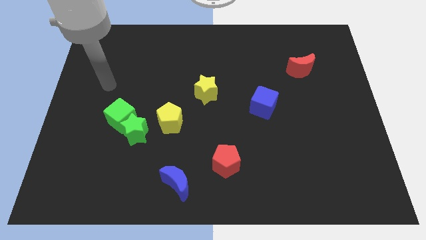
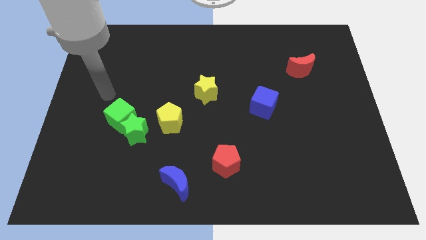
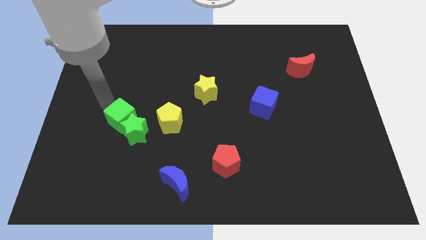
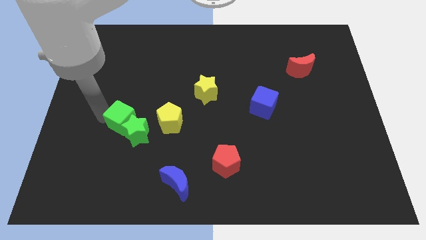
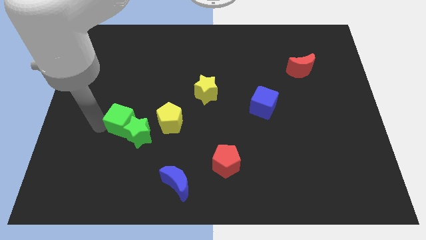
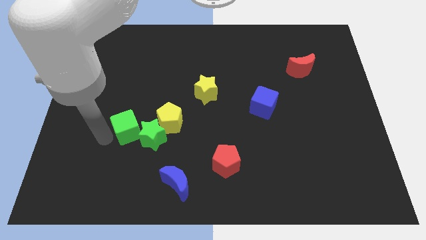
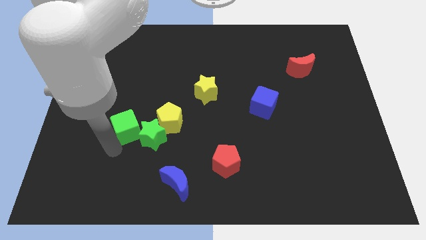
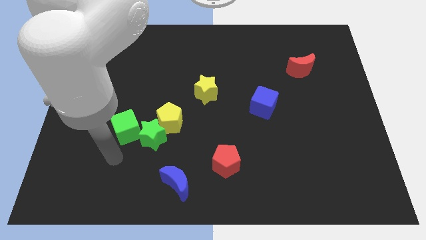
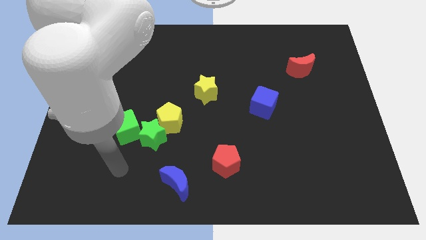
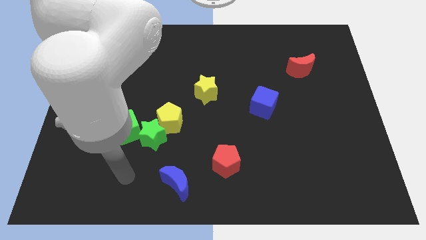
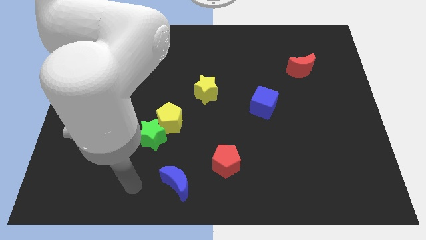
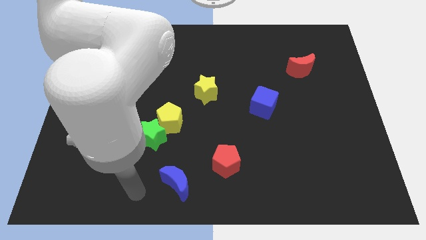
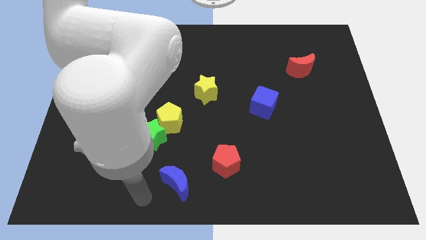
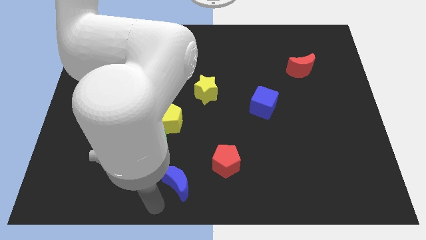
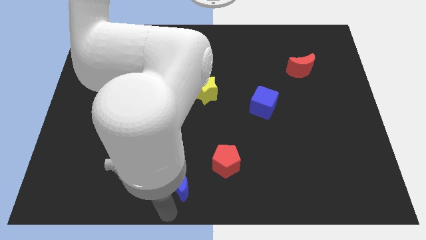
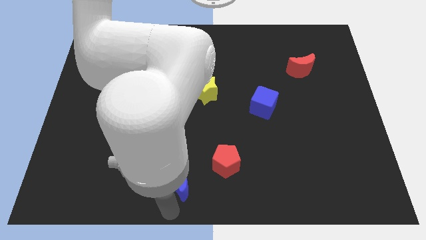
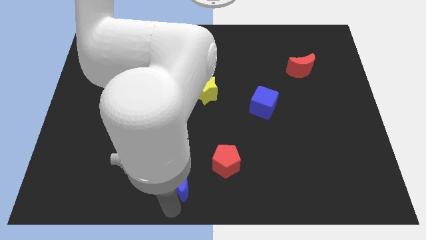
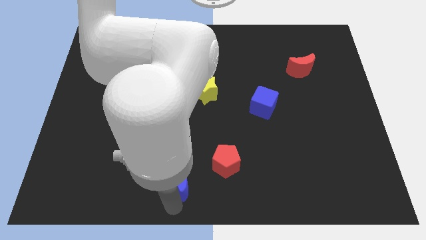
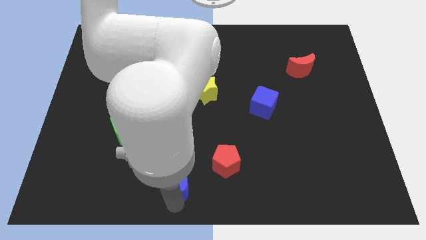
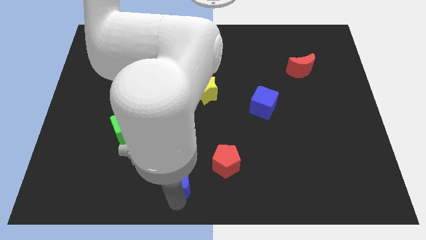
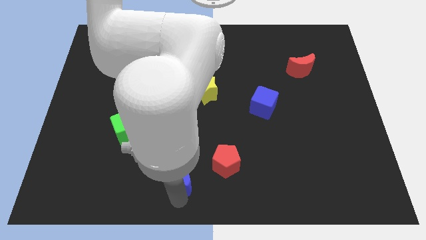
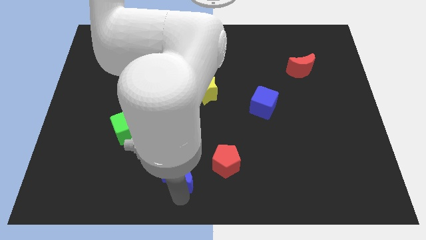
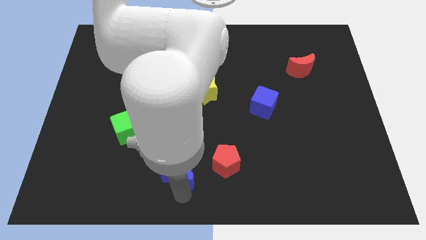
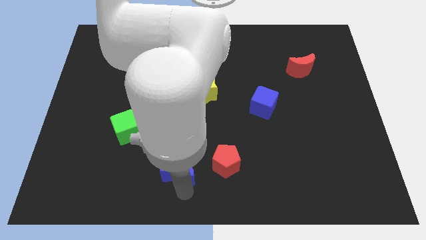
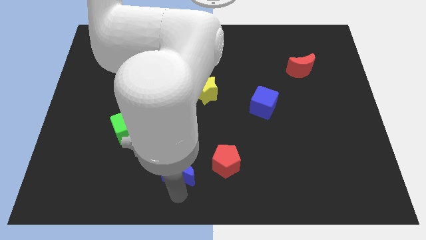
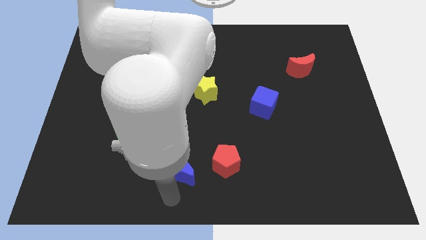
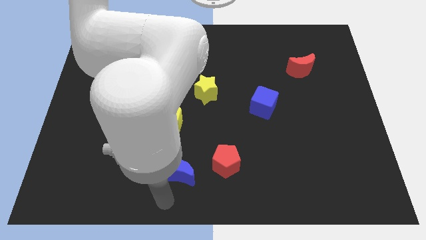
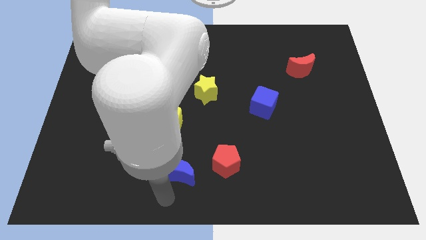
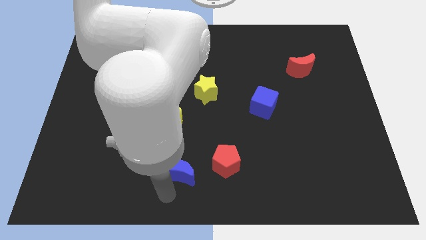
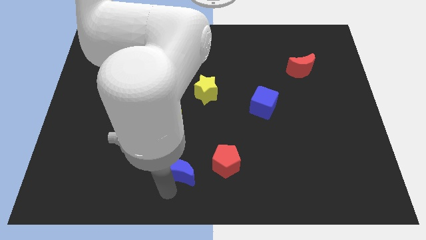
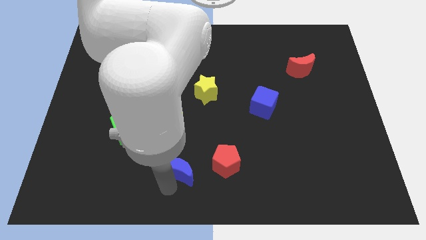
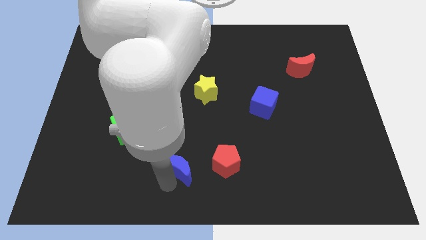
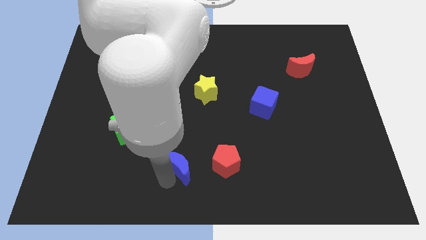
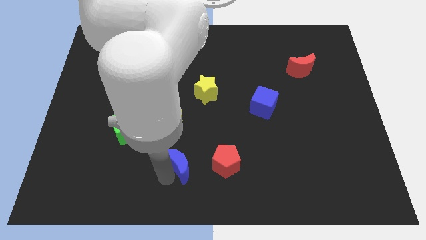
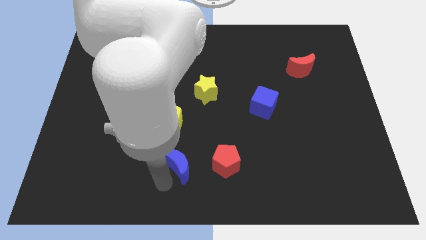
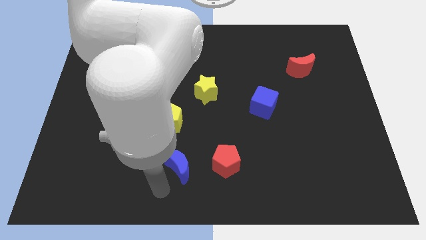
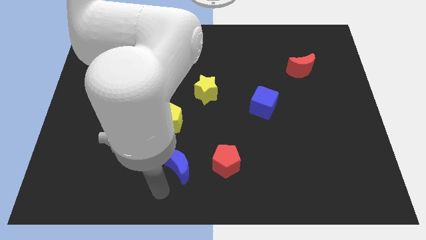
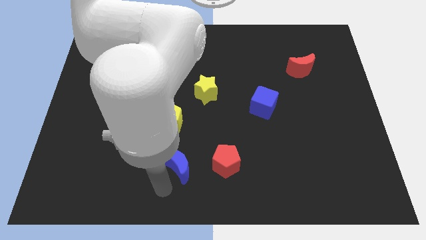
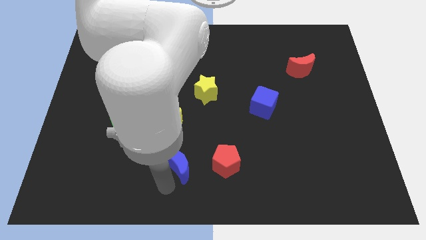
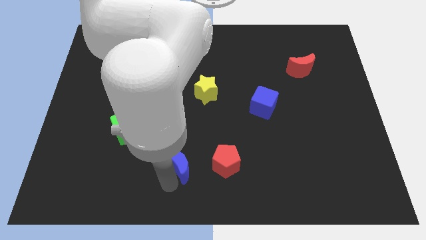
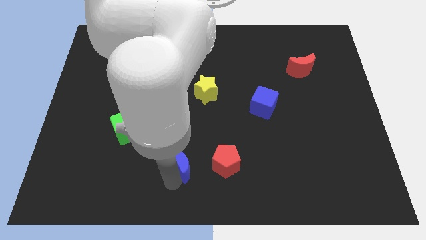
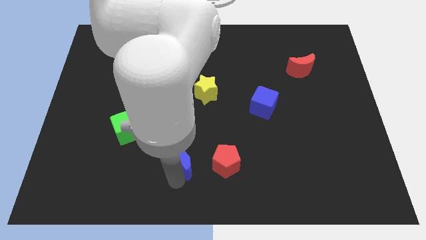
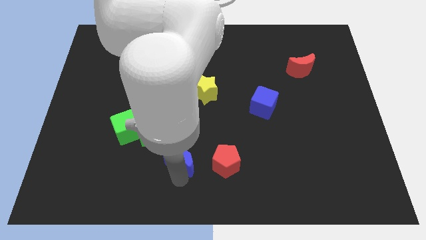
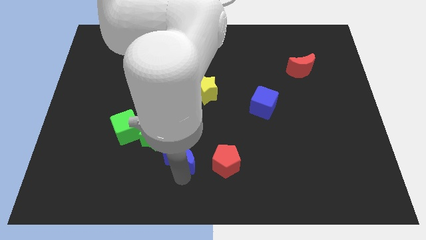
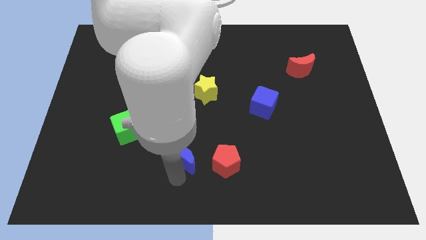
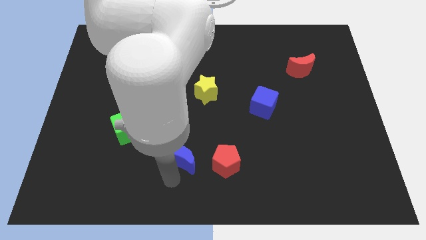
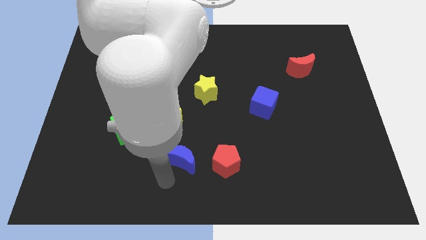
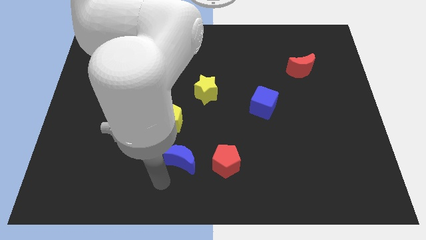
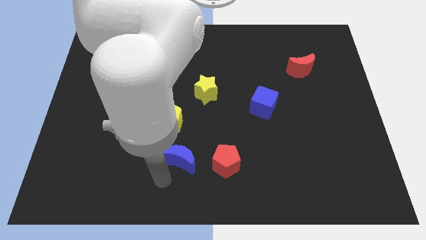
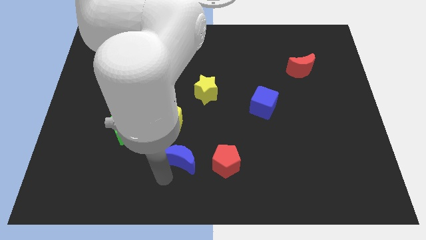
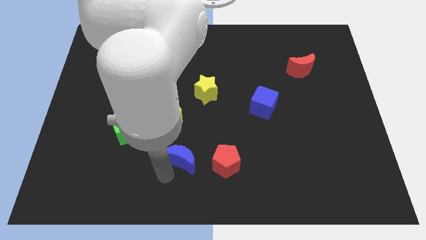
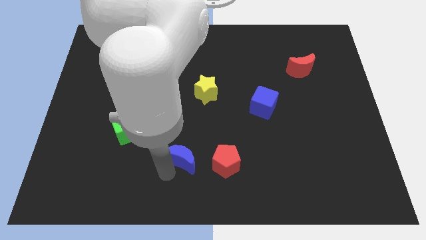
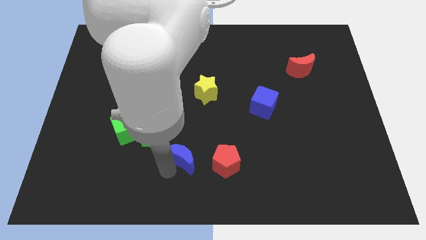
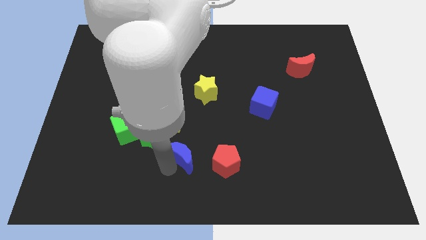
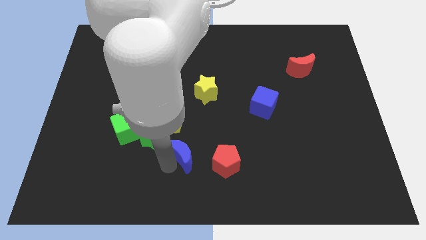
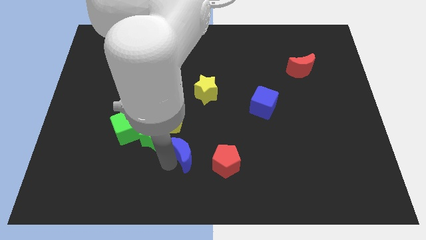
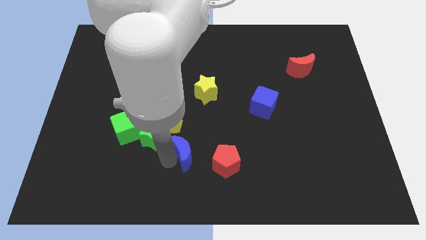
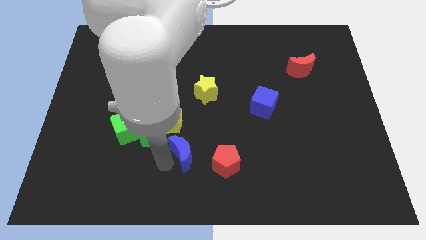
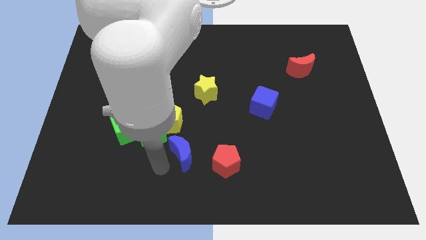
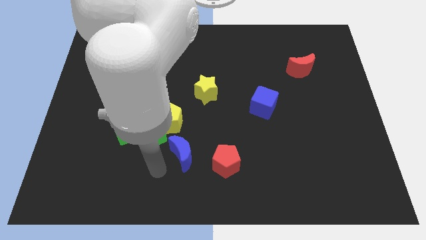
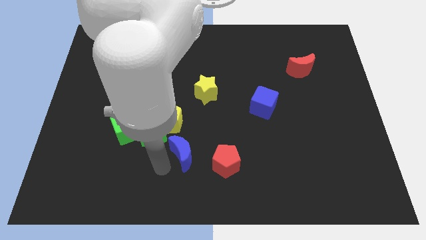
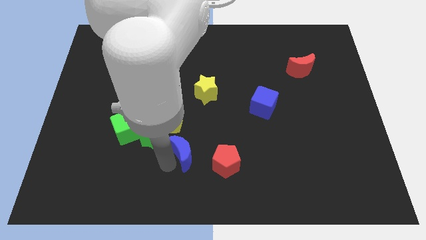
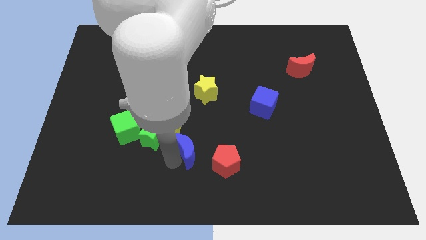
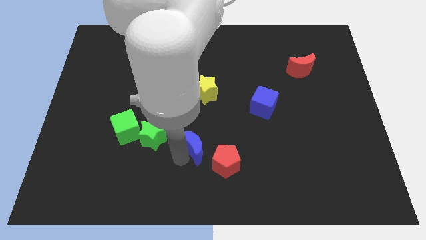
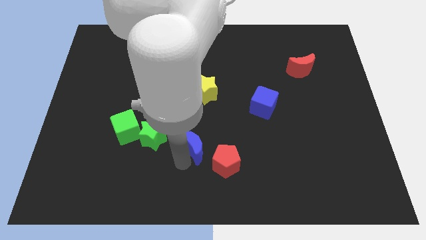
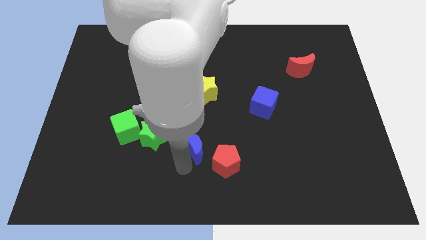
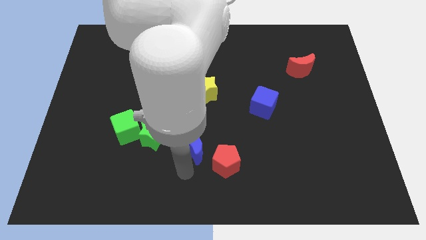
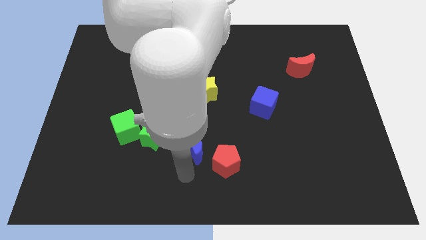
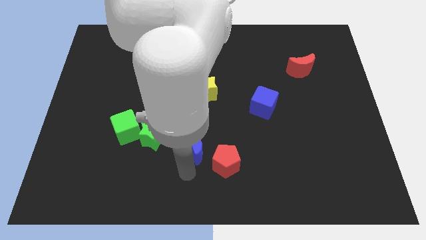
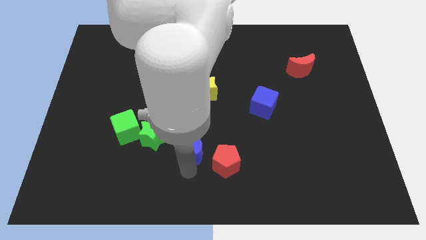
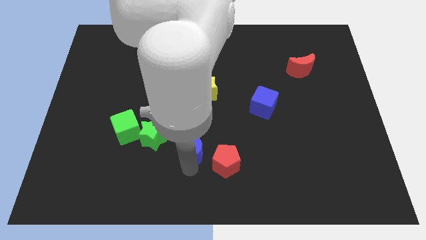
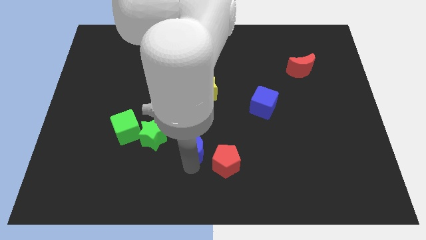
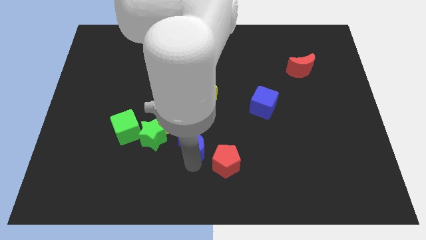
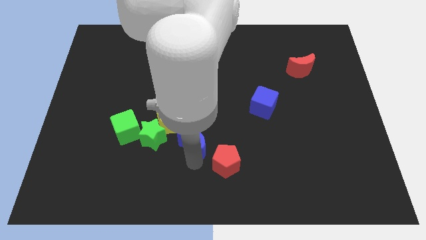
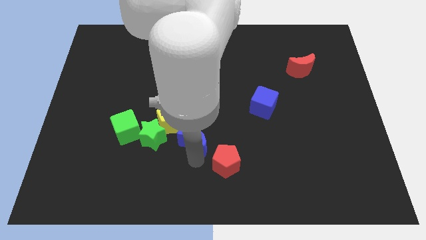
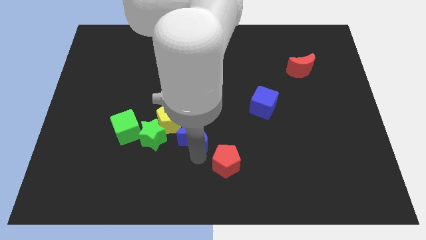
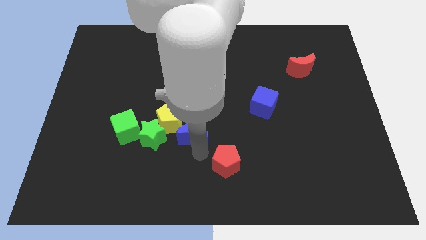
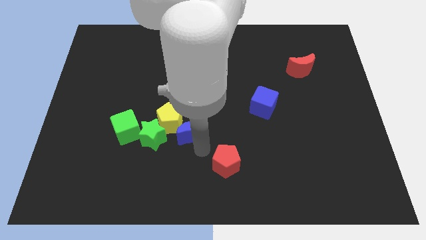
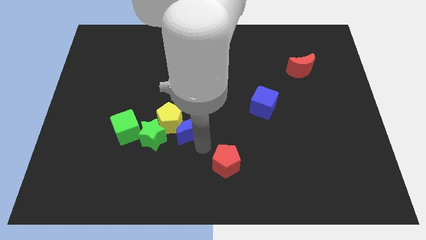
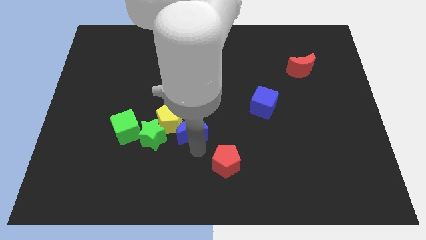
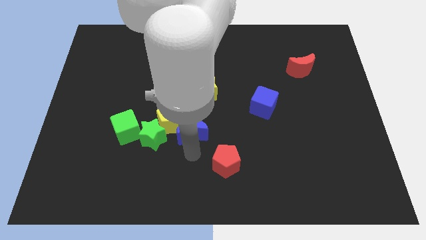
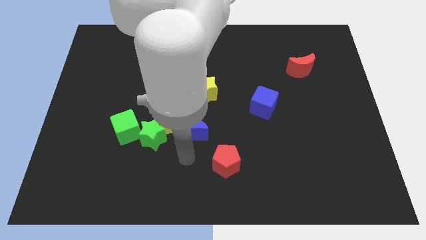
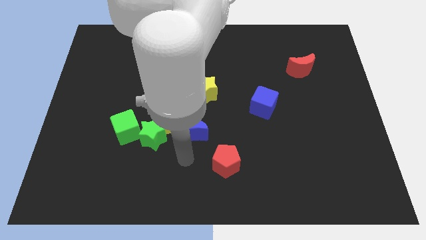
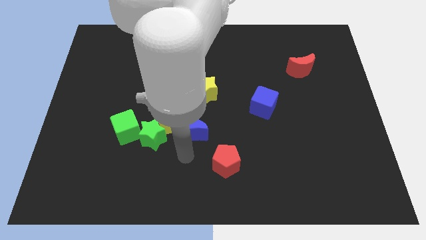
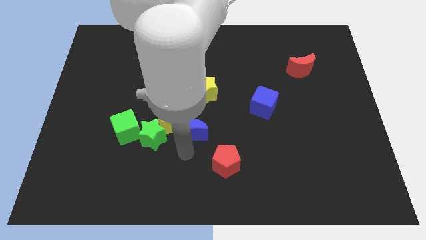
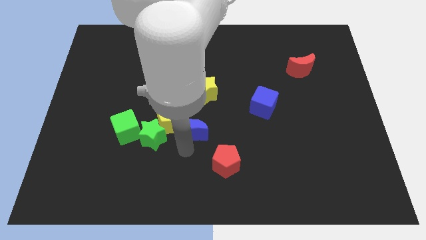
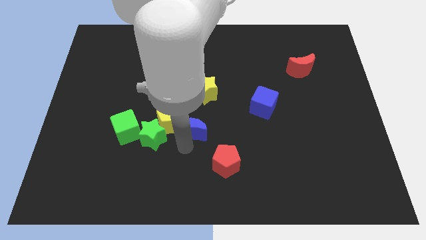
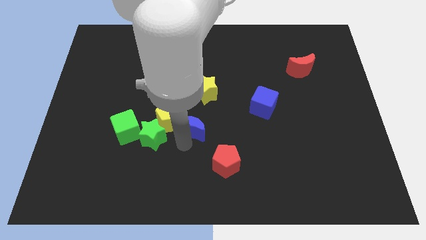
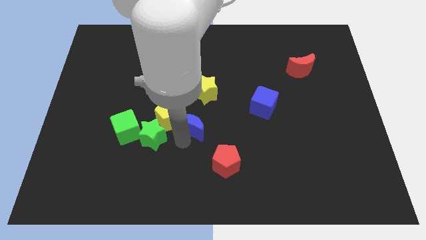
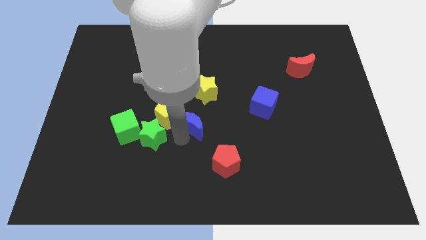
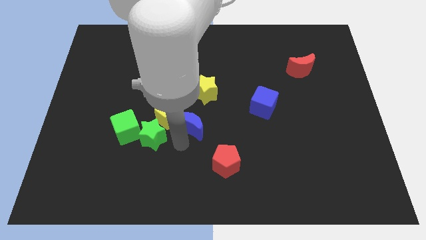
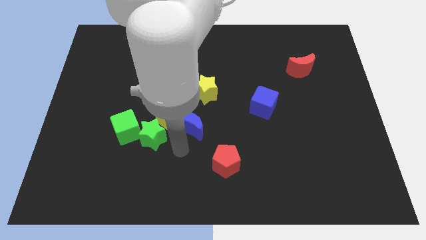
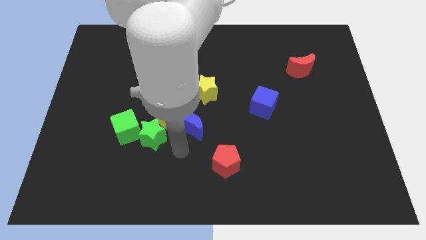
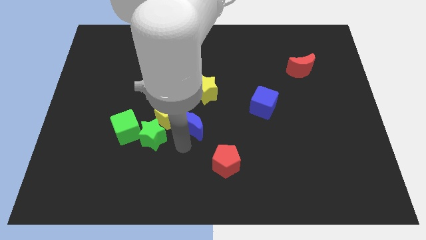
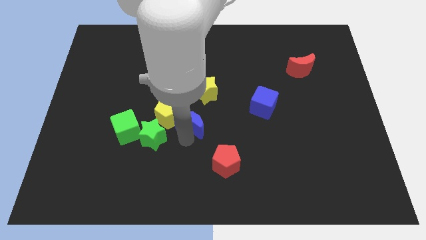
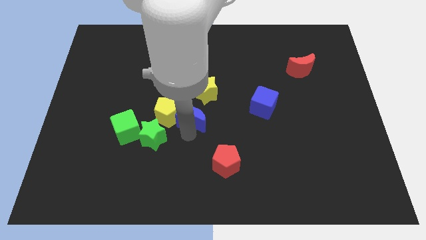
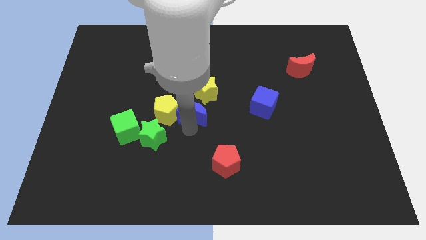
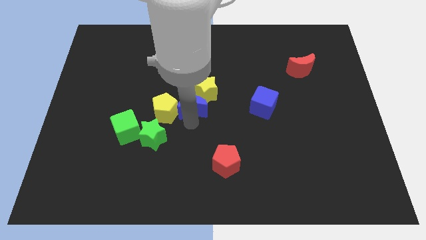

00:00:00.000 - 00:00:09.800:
move the blue moon close to the yellow star
